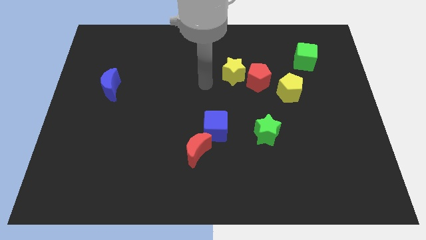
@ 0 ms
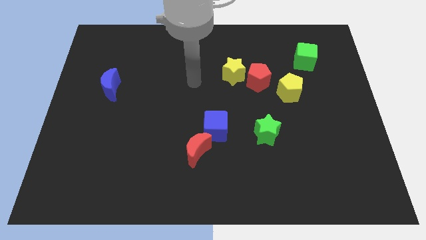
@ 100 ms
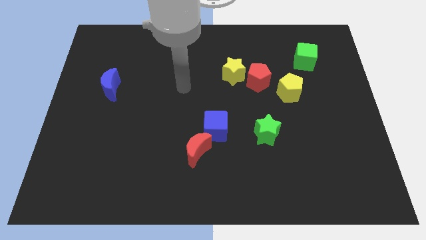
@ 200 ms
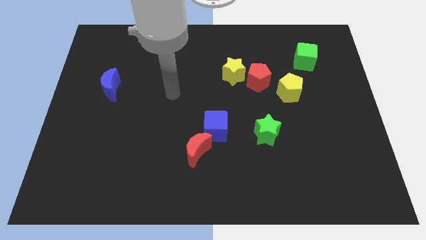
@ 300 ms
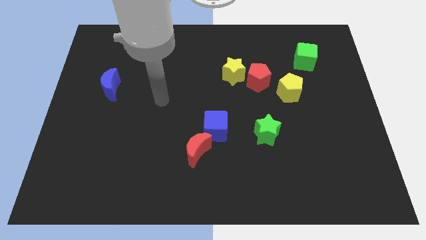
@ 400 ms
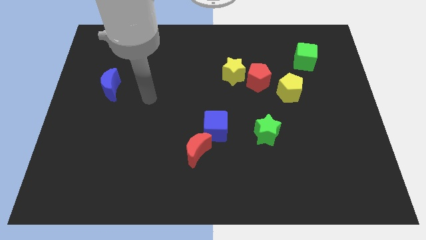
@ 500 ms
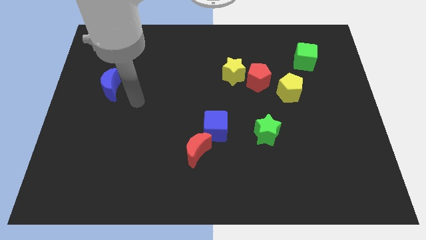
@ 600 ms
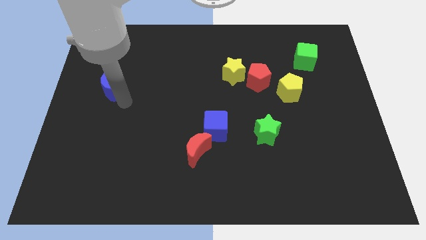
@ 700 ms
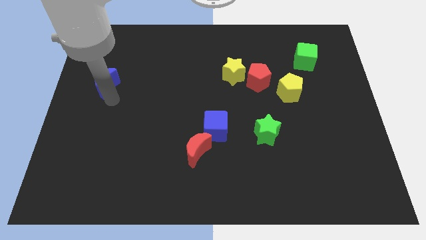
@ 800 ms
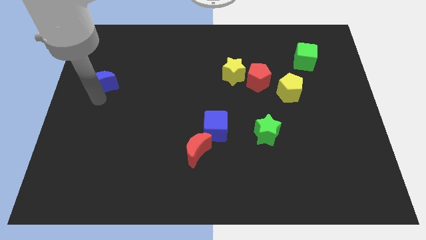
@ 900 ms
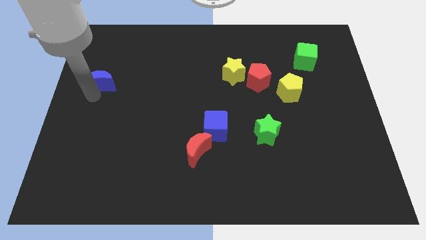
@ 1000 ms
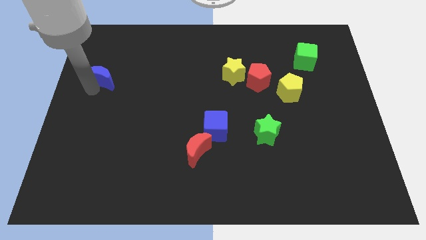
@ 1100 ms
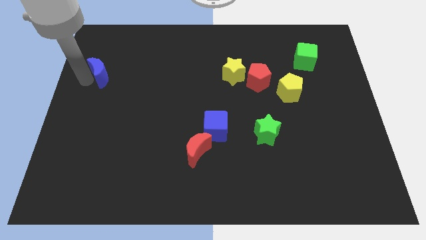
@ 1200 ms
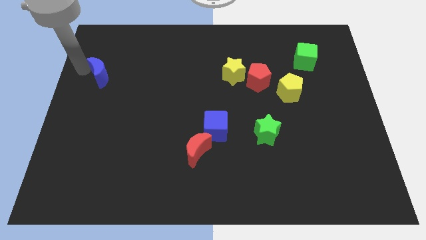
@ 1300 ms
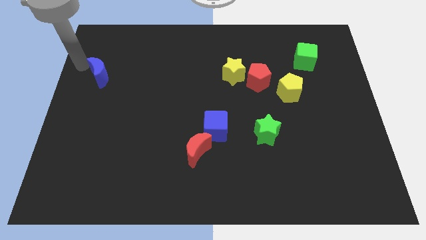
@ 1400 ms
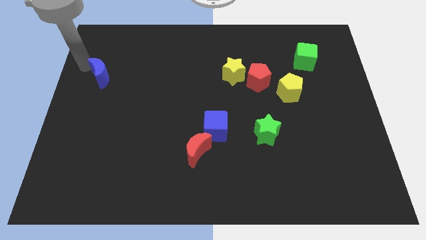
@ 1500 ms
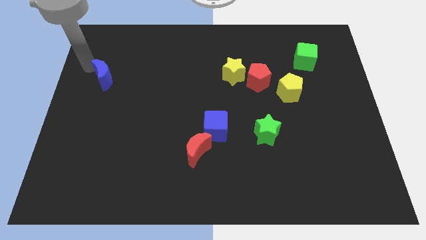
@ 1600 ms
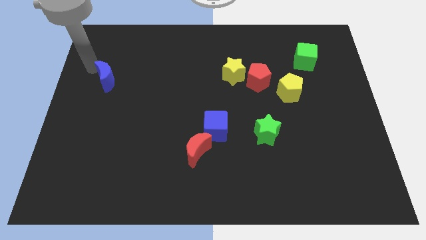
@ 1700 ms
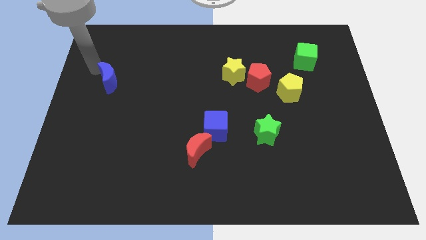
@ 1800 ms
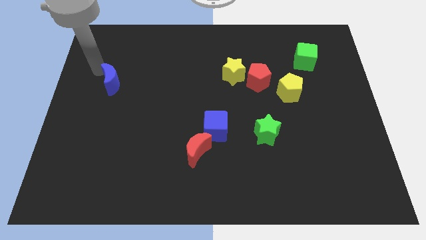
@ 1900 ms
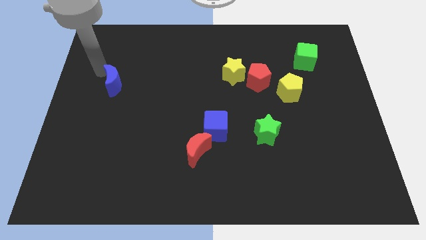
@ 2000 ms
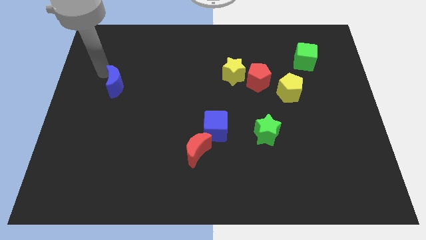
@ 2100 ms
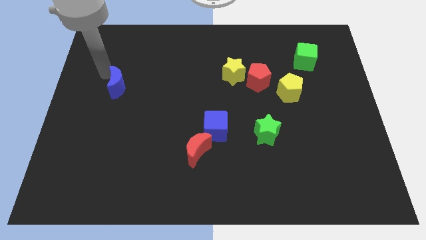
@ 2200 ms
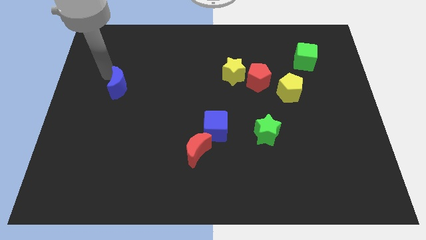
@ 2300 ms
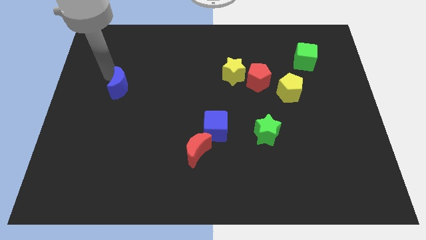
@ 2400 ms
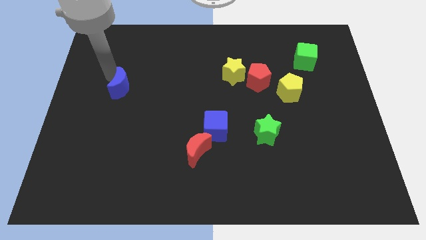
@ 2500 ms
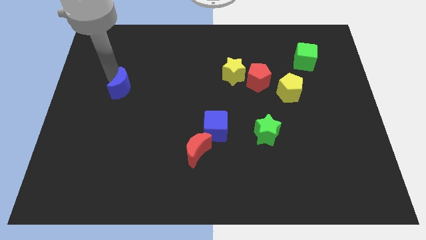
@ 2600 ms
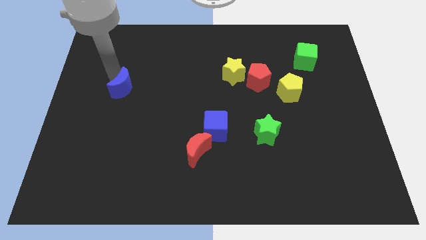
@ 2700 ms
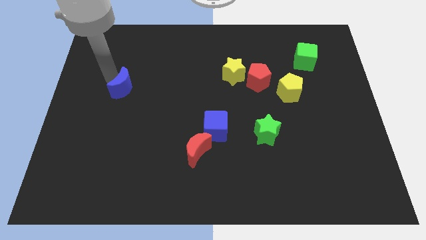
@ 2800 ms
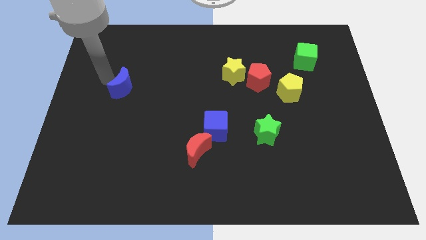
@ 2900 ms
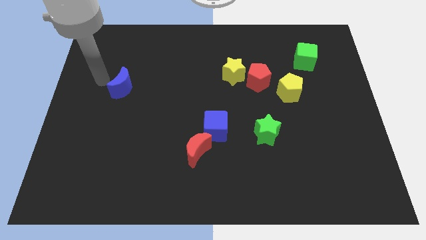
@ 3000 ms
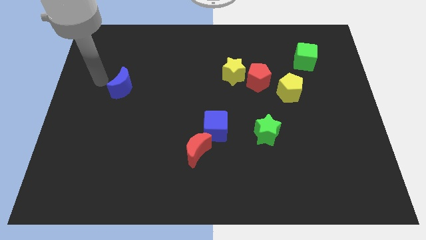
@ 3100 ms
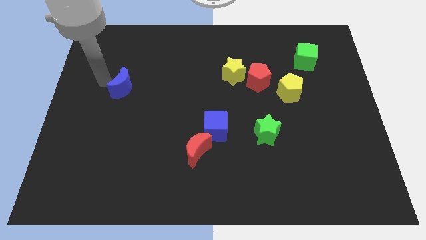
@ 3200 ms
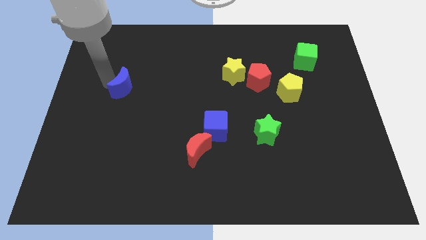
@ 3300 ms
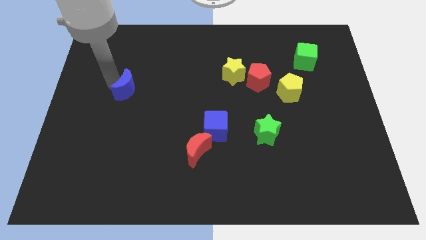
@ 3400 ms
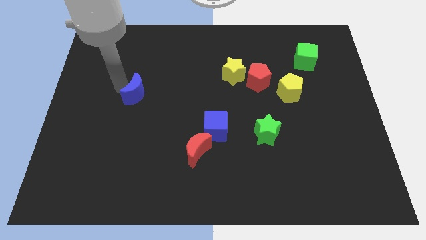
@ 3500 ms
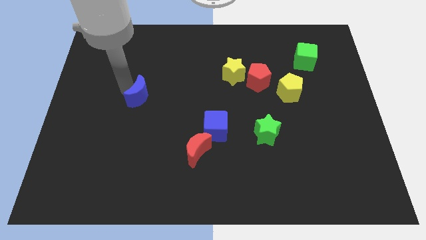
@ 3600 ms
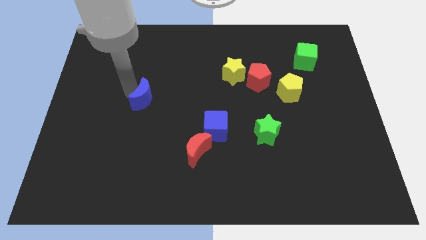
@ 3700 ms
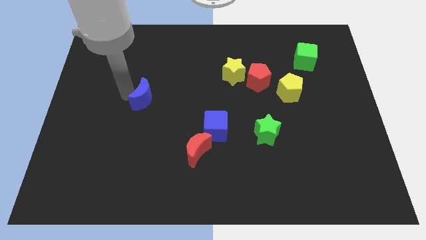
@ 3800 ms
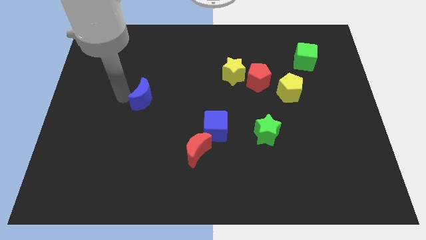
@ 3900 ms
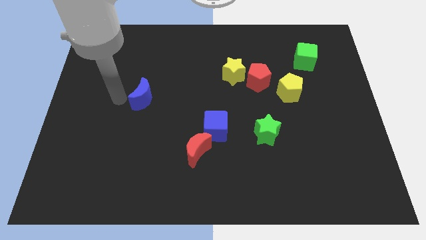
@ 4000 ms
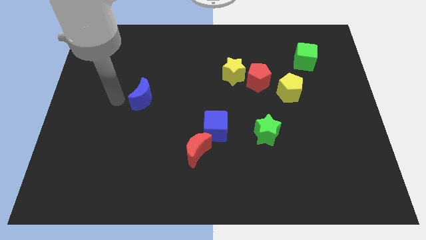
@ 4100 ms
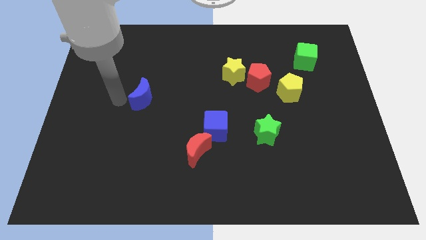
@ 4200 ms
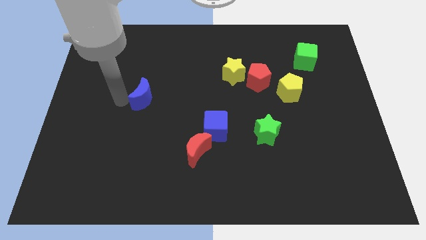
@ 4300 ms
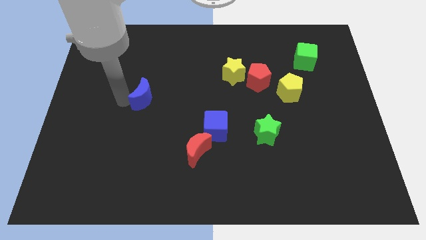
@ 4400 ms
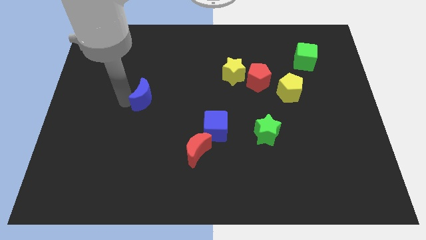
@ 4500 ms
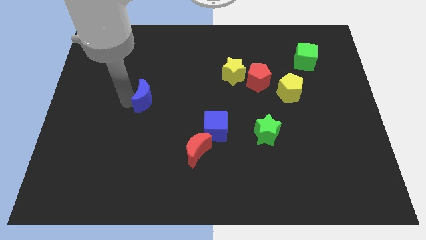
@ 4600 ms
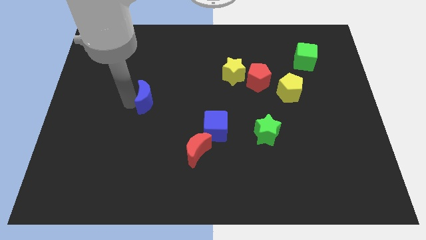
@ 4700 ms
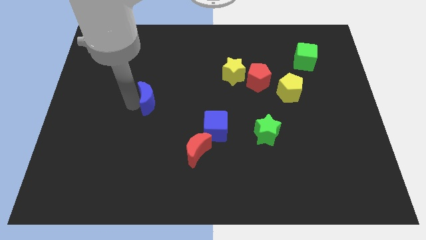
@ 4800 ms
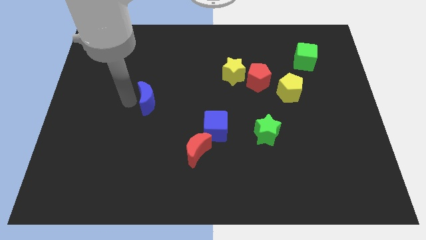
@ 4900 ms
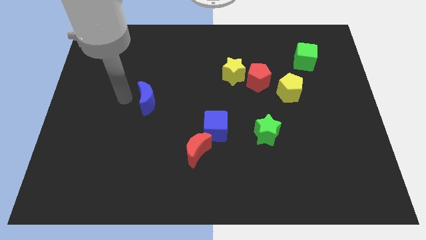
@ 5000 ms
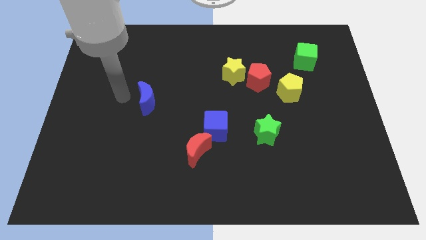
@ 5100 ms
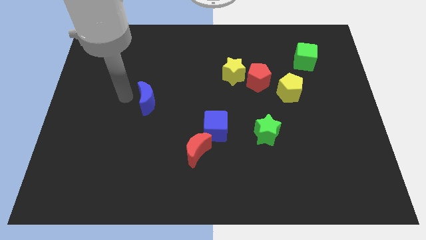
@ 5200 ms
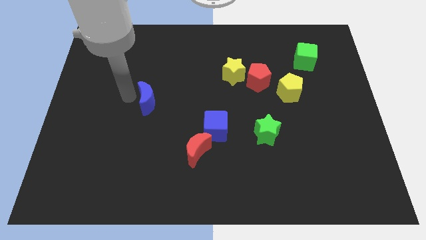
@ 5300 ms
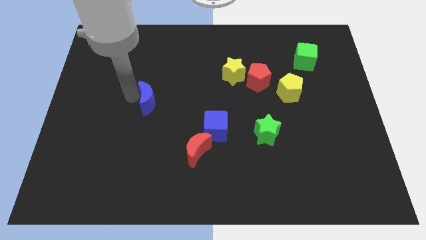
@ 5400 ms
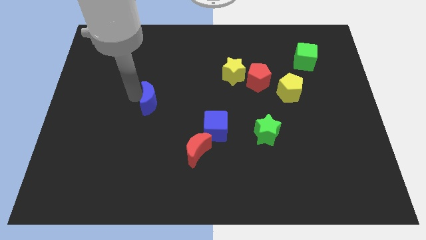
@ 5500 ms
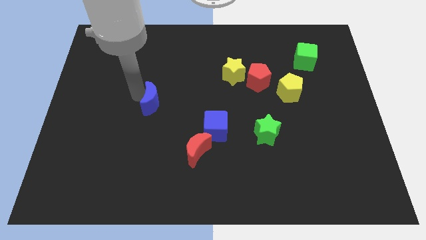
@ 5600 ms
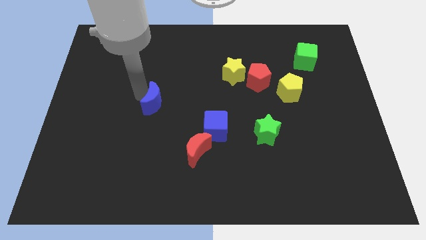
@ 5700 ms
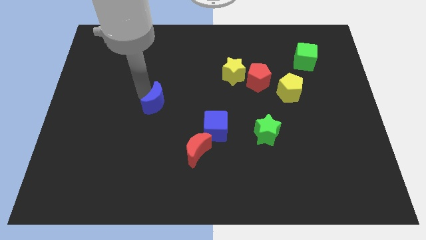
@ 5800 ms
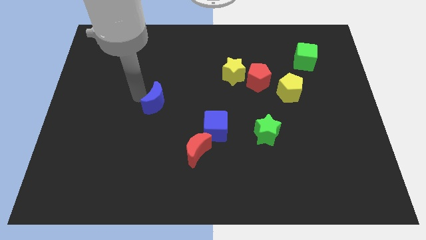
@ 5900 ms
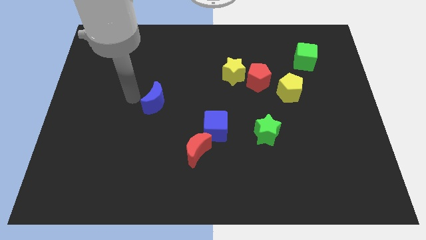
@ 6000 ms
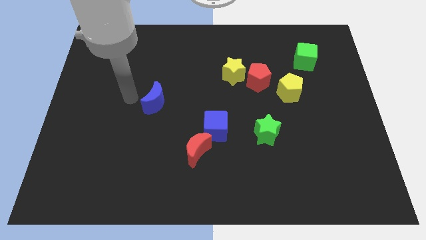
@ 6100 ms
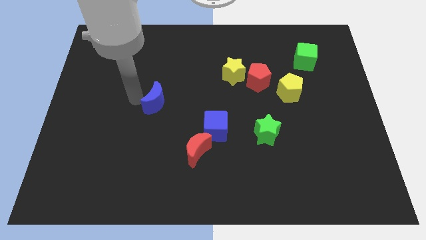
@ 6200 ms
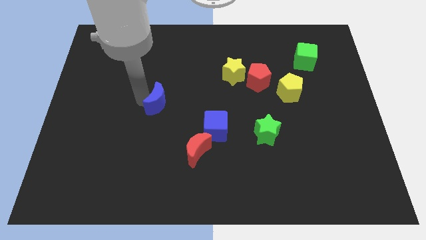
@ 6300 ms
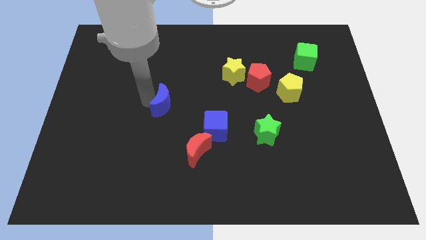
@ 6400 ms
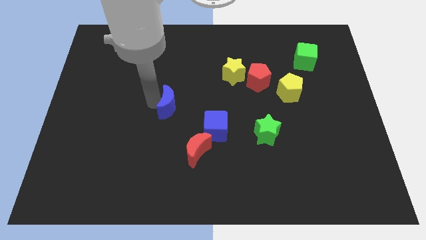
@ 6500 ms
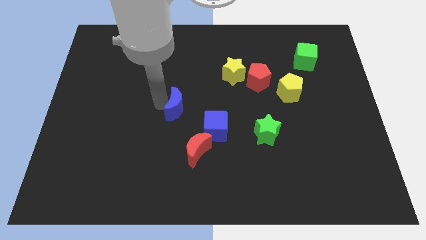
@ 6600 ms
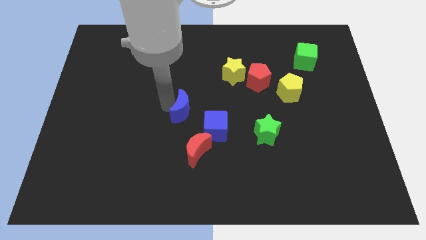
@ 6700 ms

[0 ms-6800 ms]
move the blue moon to the top of the red moon

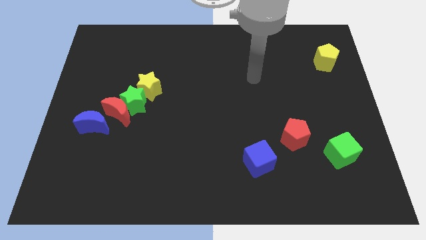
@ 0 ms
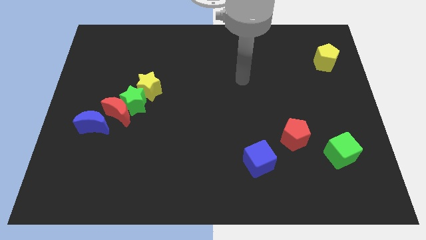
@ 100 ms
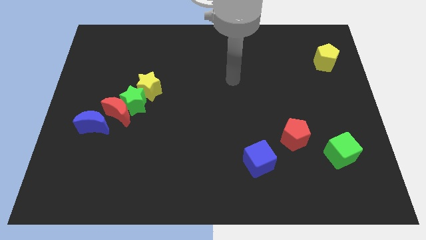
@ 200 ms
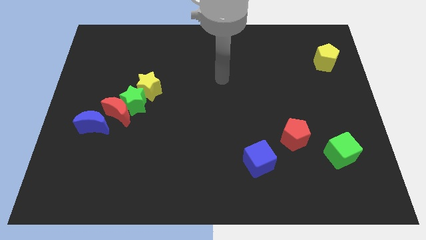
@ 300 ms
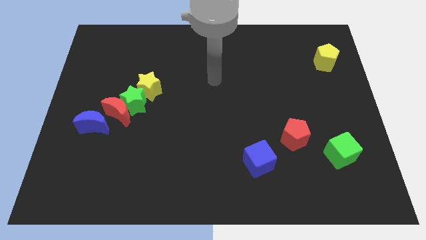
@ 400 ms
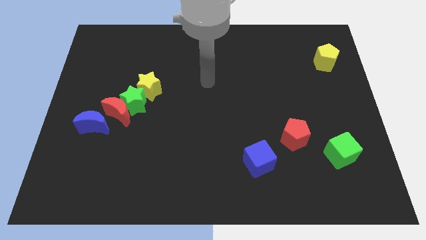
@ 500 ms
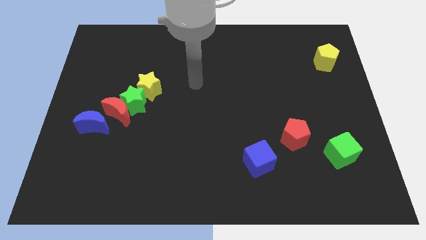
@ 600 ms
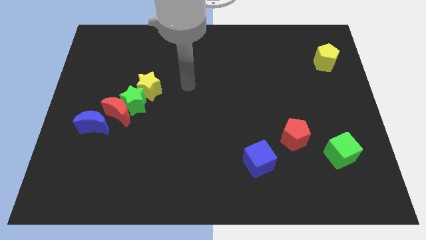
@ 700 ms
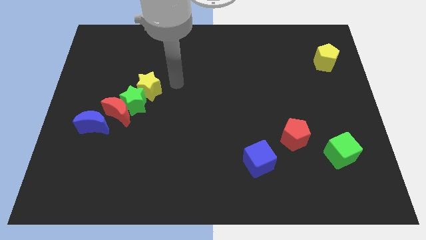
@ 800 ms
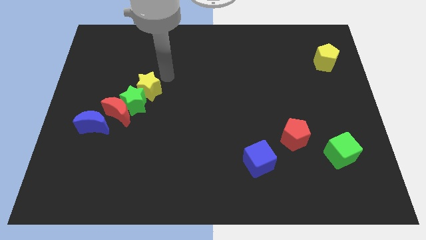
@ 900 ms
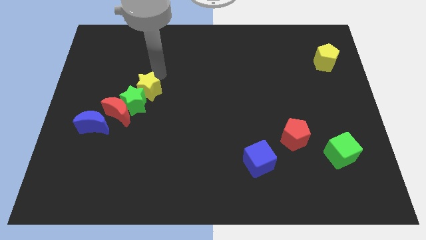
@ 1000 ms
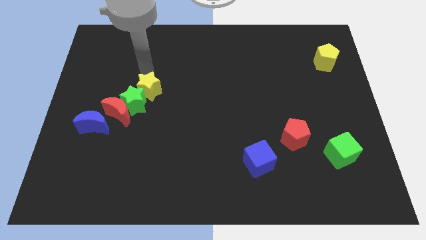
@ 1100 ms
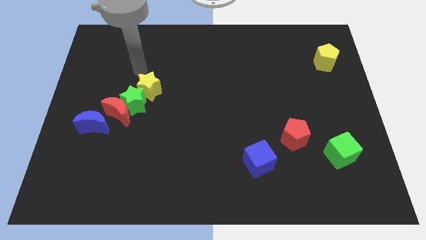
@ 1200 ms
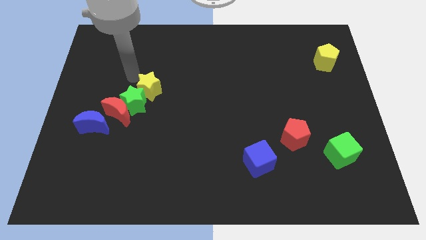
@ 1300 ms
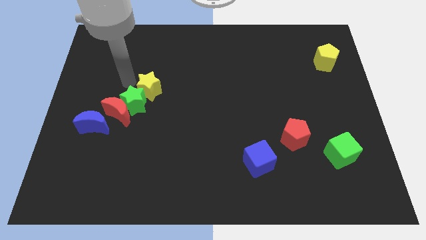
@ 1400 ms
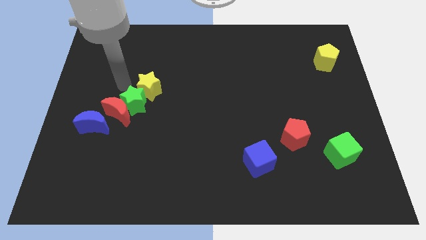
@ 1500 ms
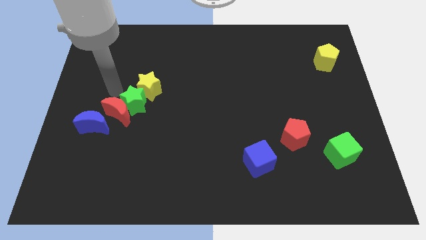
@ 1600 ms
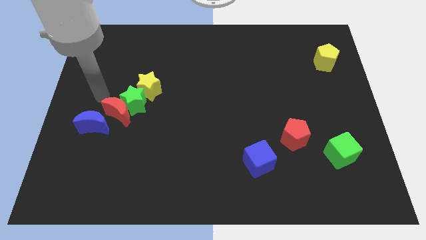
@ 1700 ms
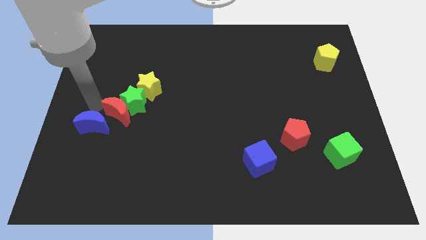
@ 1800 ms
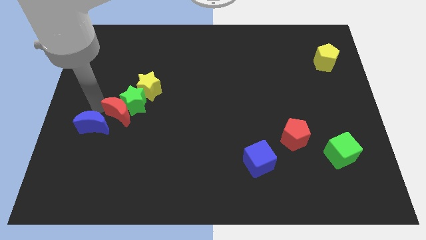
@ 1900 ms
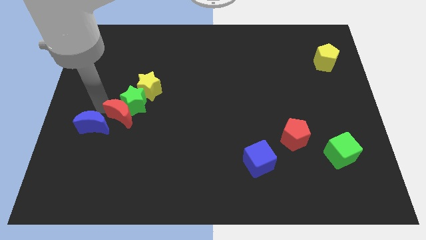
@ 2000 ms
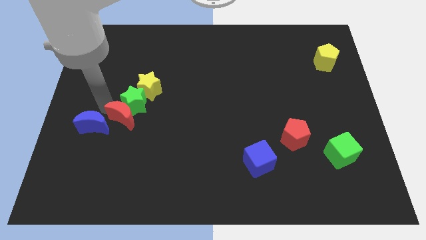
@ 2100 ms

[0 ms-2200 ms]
slide the red moon to the bottom right side of the green star
